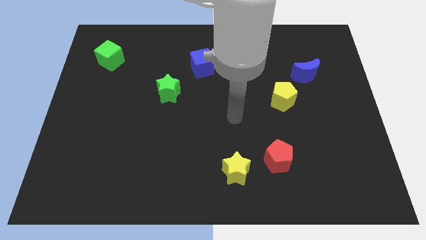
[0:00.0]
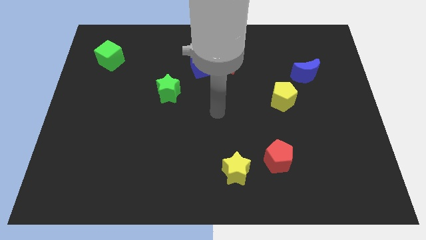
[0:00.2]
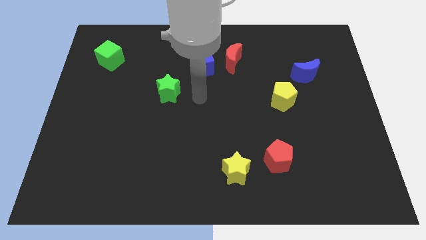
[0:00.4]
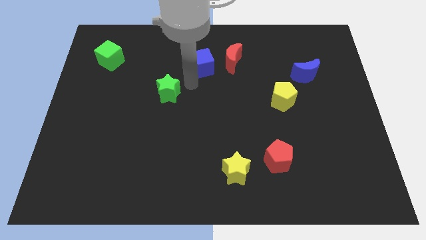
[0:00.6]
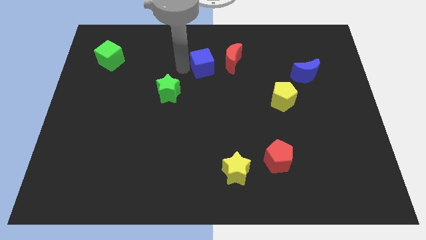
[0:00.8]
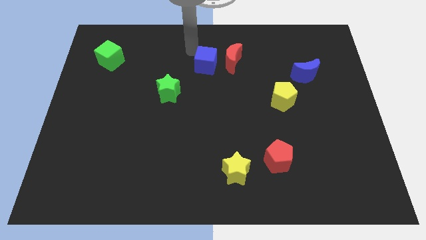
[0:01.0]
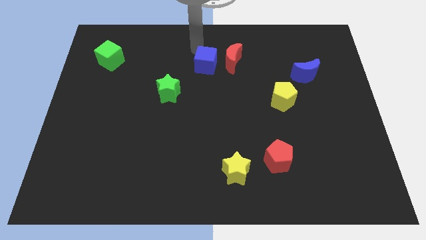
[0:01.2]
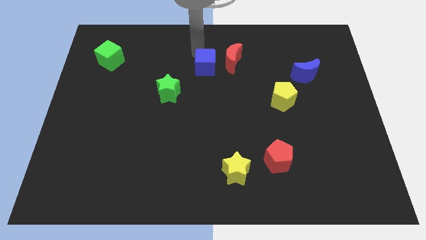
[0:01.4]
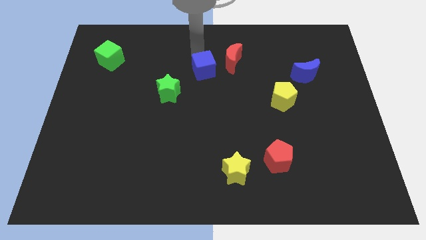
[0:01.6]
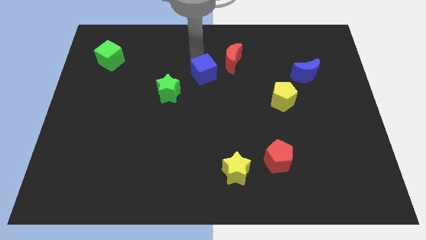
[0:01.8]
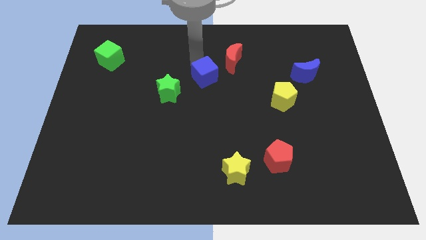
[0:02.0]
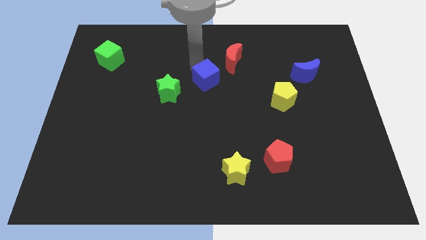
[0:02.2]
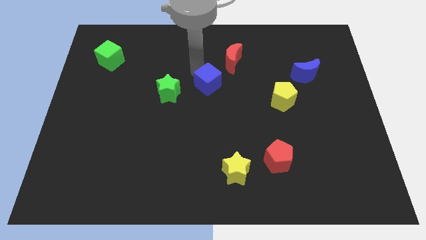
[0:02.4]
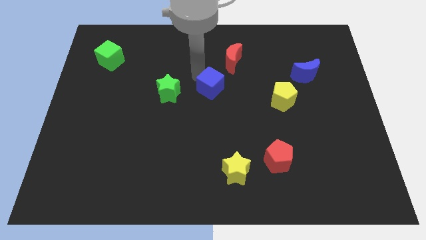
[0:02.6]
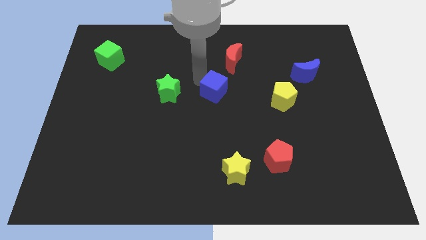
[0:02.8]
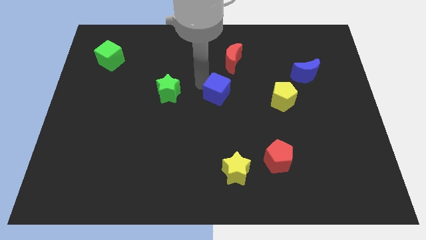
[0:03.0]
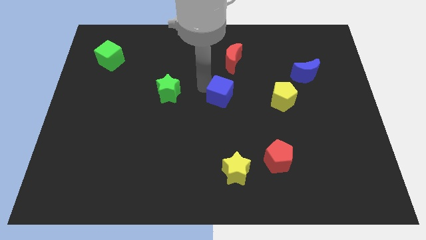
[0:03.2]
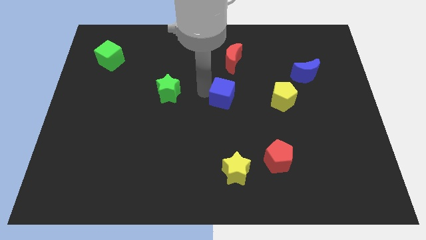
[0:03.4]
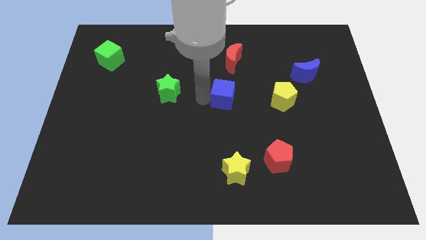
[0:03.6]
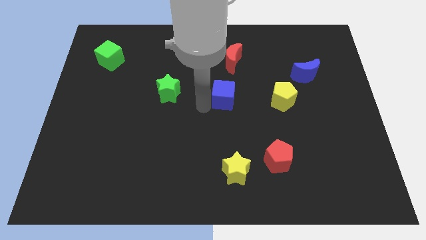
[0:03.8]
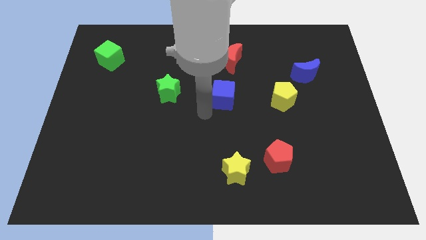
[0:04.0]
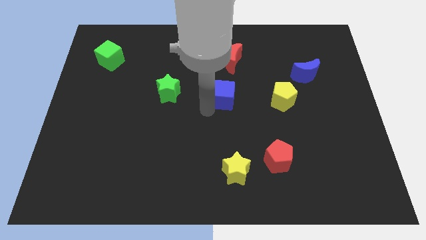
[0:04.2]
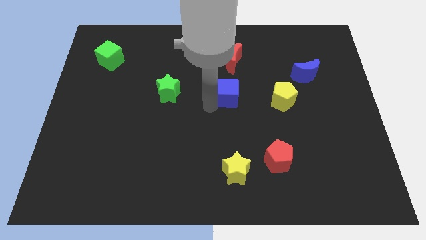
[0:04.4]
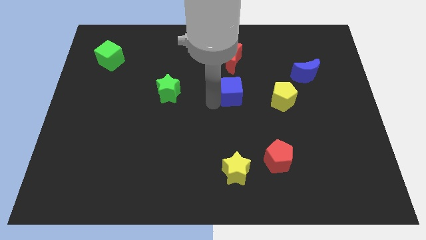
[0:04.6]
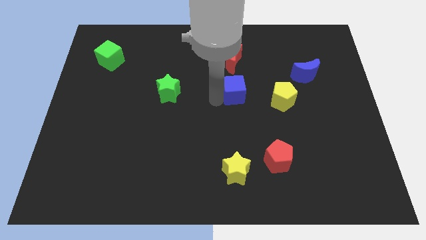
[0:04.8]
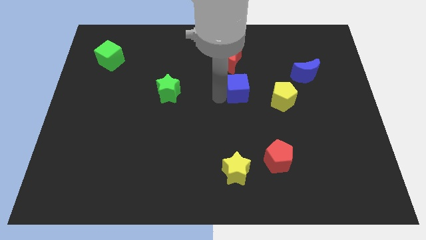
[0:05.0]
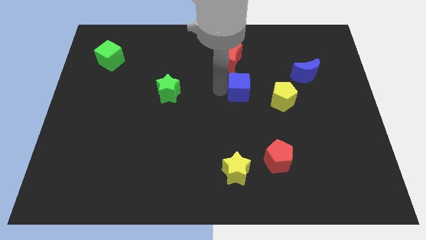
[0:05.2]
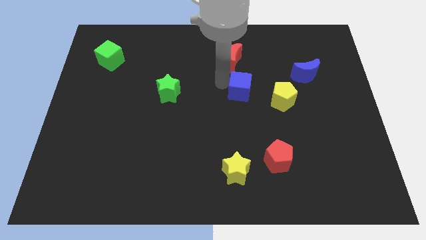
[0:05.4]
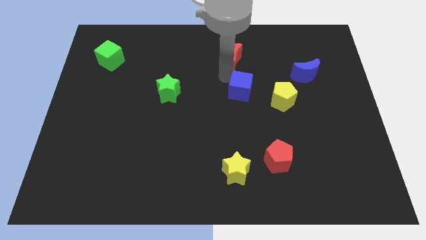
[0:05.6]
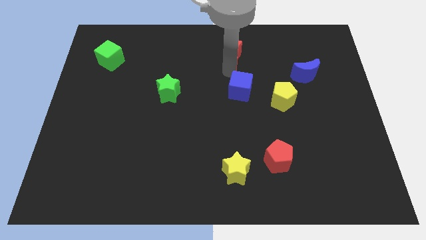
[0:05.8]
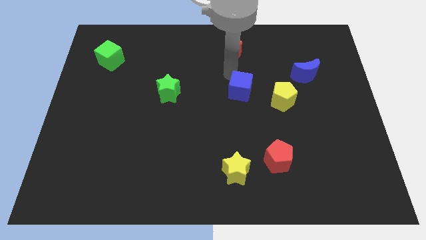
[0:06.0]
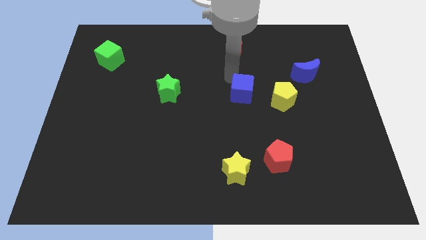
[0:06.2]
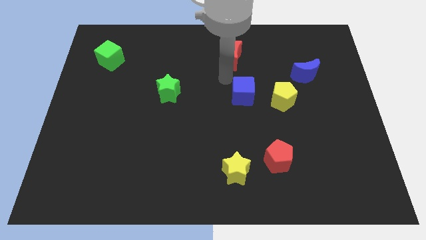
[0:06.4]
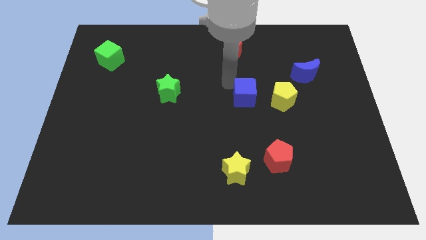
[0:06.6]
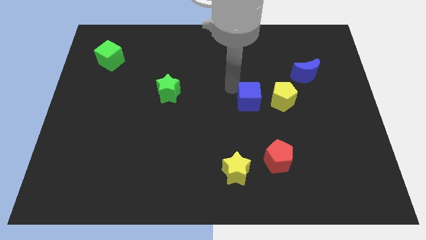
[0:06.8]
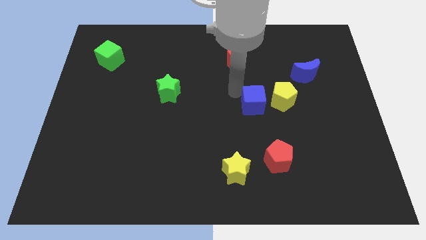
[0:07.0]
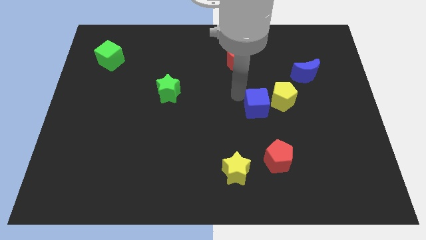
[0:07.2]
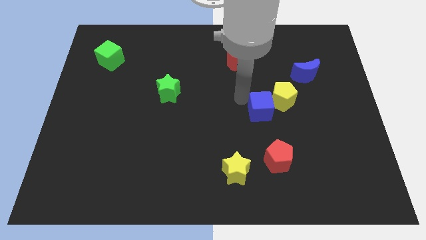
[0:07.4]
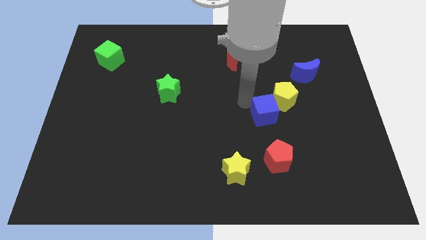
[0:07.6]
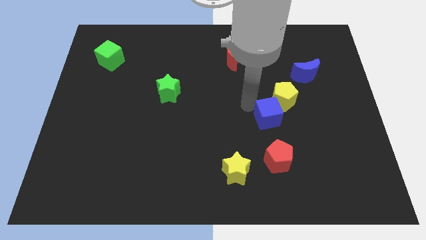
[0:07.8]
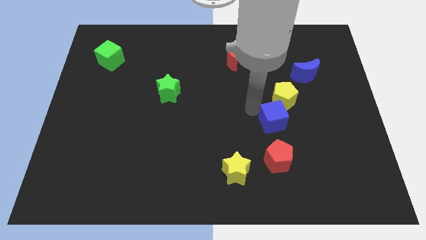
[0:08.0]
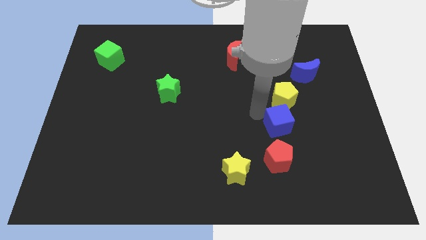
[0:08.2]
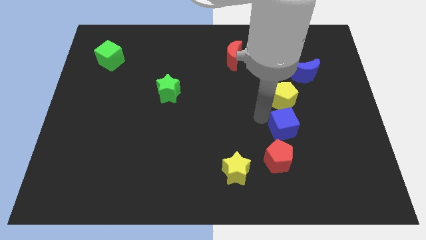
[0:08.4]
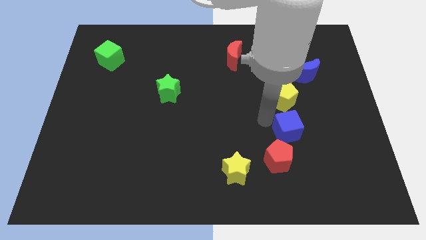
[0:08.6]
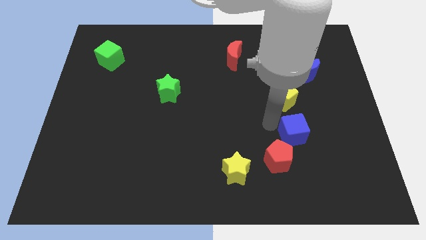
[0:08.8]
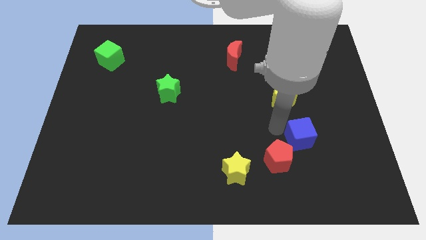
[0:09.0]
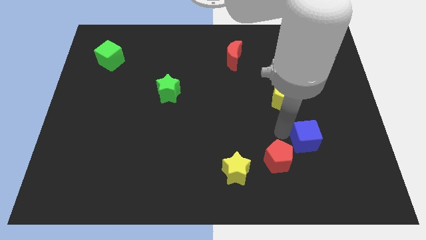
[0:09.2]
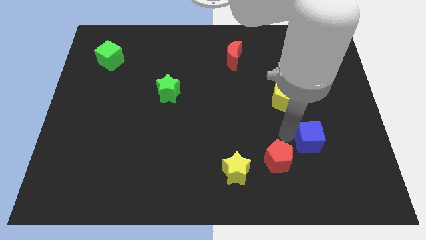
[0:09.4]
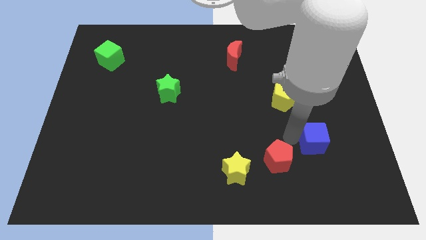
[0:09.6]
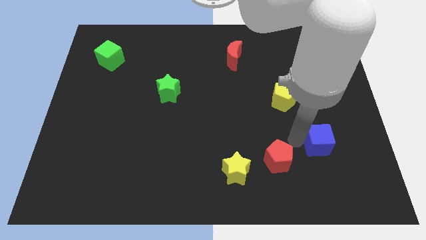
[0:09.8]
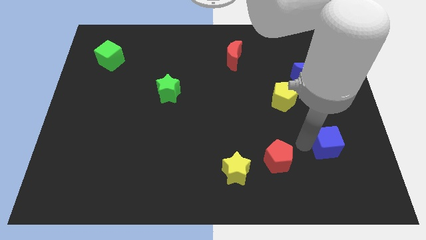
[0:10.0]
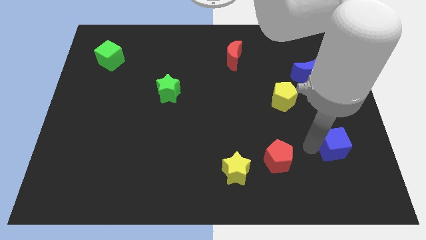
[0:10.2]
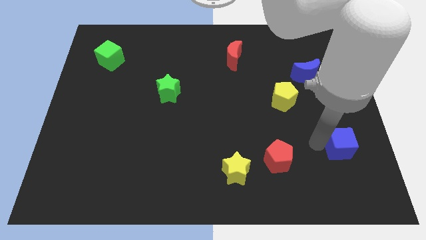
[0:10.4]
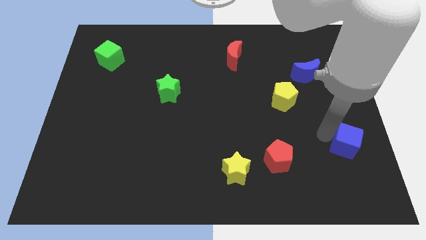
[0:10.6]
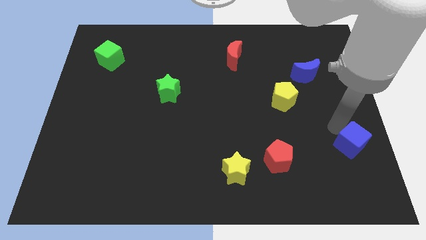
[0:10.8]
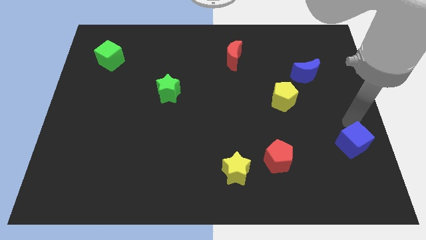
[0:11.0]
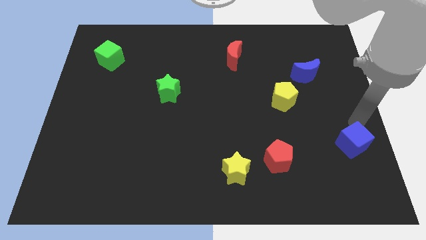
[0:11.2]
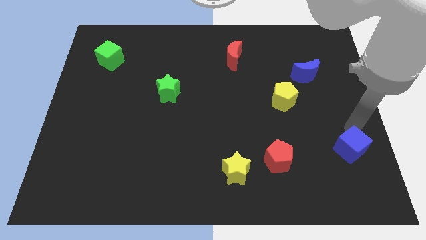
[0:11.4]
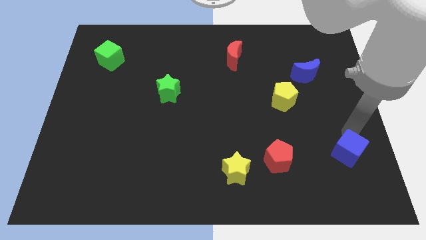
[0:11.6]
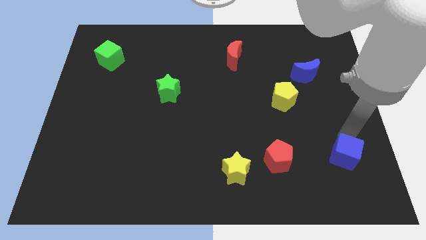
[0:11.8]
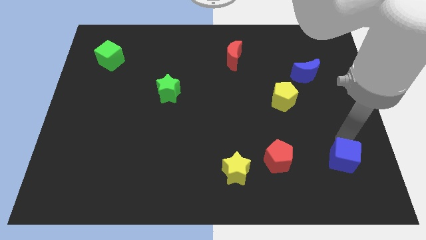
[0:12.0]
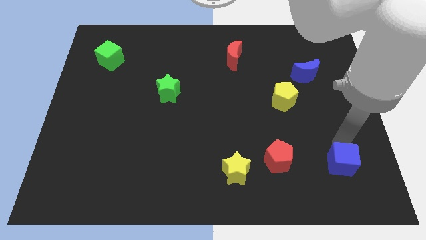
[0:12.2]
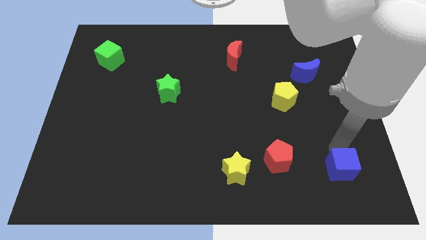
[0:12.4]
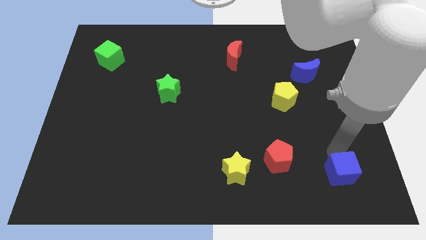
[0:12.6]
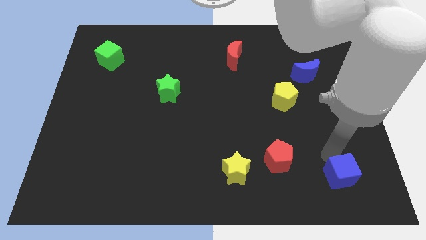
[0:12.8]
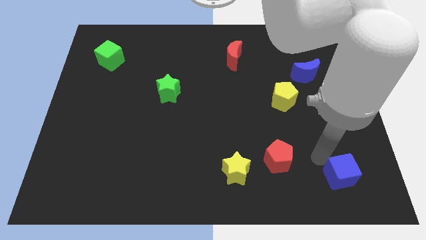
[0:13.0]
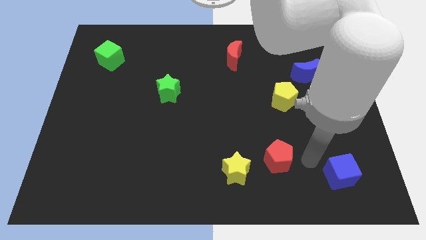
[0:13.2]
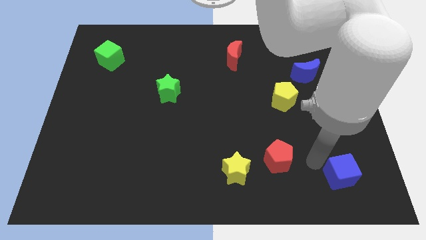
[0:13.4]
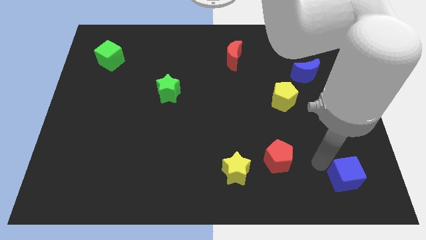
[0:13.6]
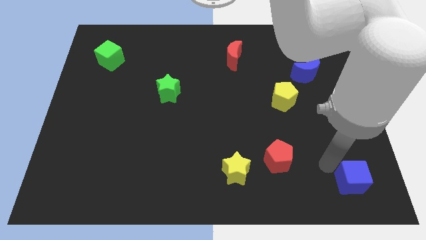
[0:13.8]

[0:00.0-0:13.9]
move the blue cube to the bottom right
